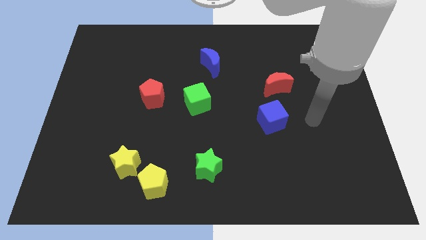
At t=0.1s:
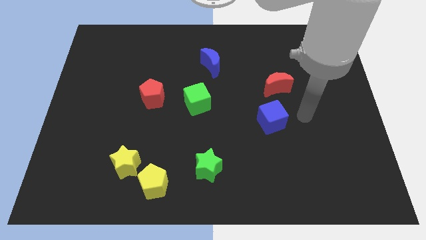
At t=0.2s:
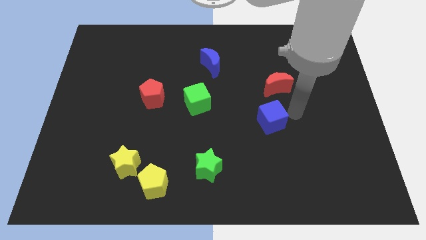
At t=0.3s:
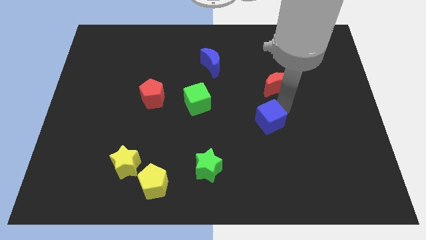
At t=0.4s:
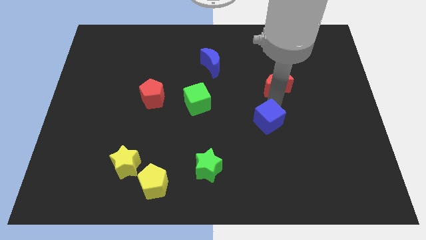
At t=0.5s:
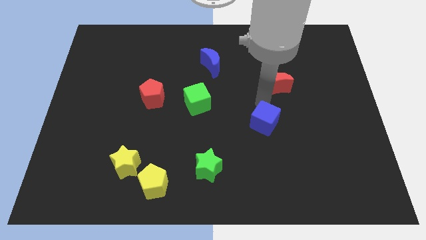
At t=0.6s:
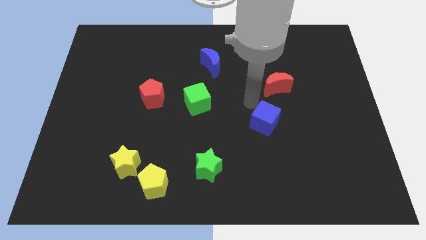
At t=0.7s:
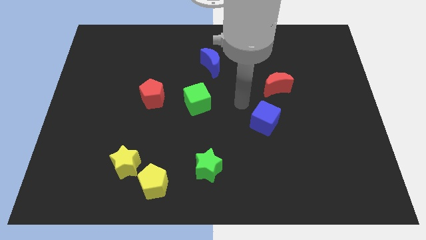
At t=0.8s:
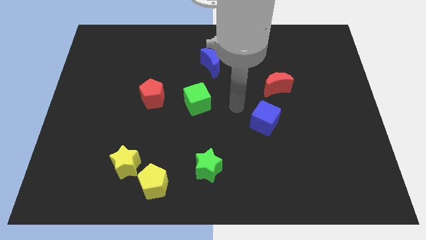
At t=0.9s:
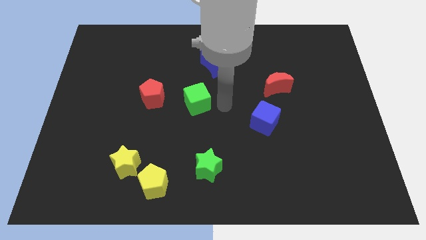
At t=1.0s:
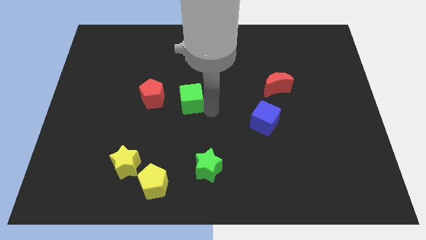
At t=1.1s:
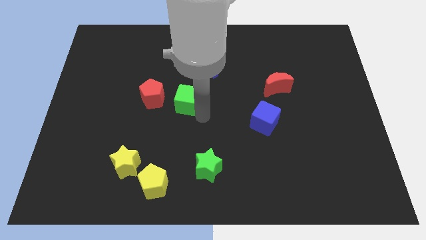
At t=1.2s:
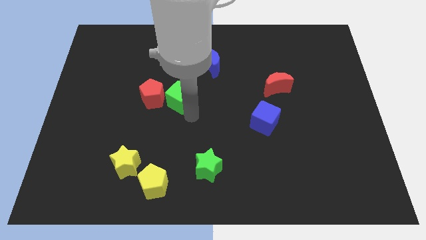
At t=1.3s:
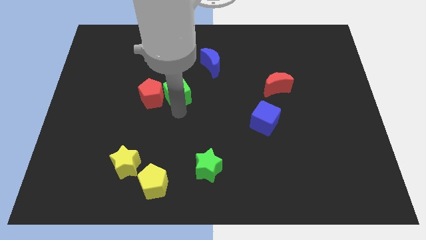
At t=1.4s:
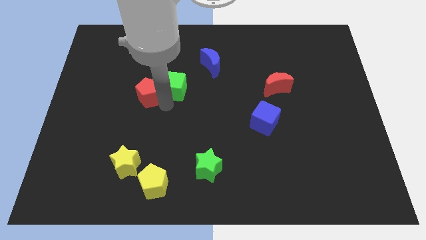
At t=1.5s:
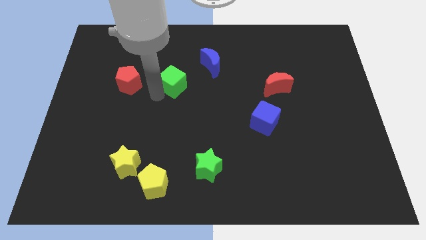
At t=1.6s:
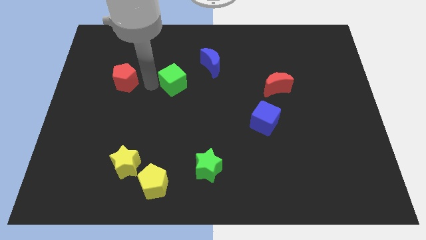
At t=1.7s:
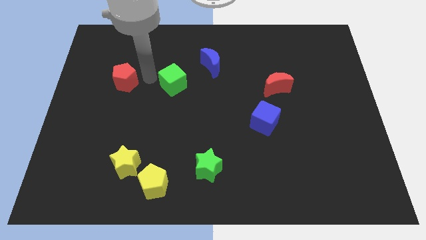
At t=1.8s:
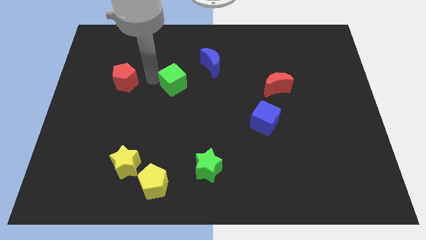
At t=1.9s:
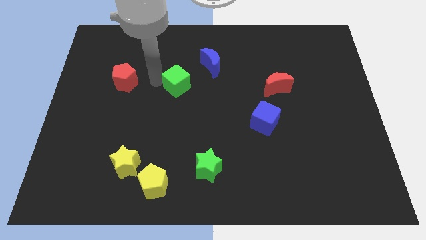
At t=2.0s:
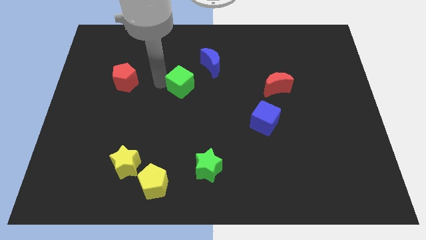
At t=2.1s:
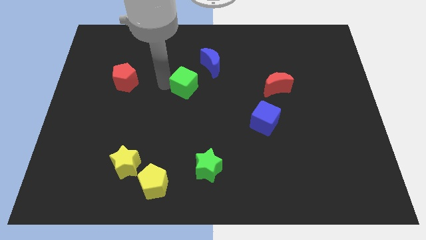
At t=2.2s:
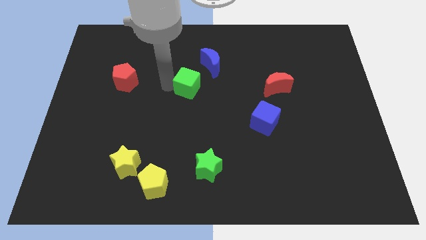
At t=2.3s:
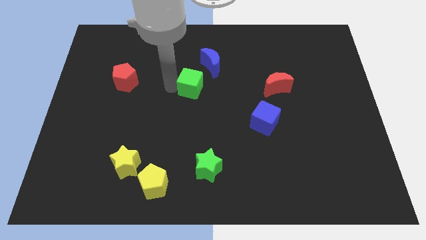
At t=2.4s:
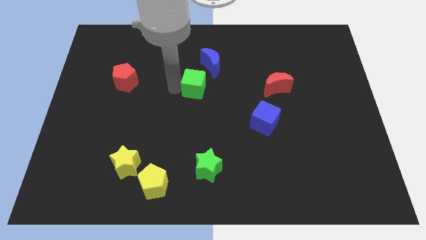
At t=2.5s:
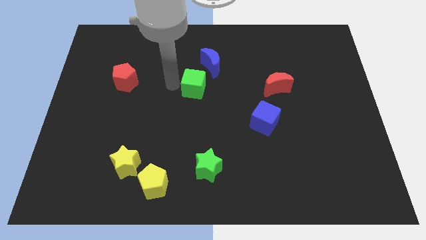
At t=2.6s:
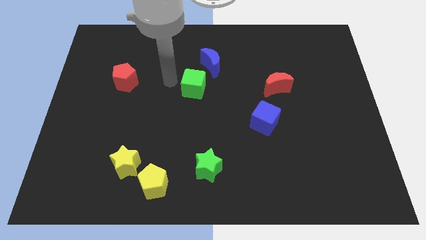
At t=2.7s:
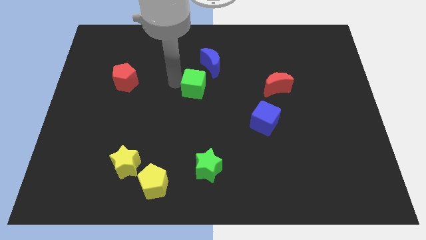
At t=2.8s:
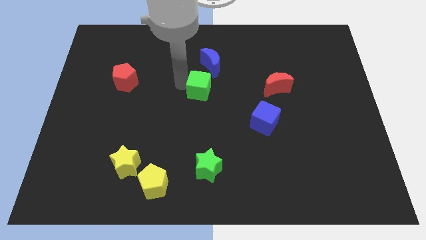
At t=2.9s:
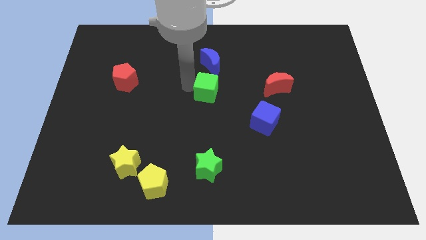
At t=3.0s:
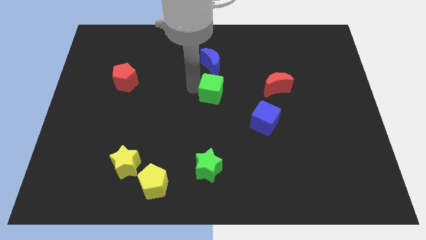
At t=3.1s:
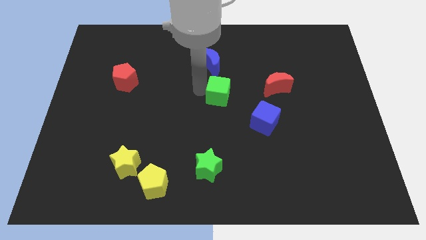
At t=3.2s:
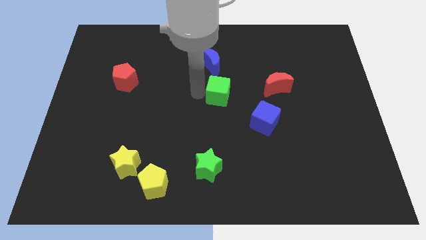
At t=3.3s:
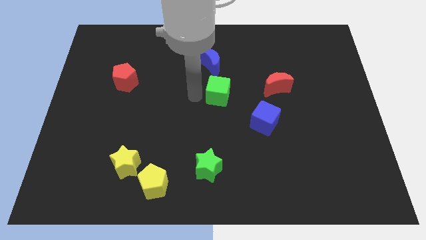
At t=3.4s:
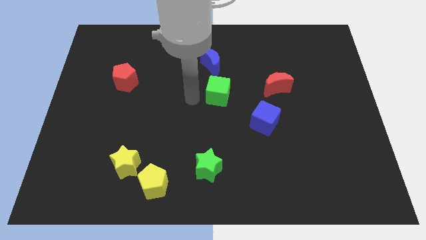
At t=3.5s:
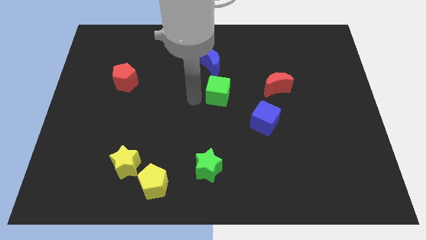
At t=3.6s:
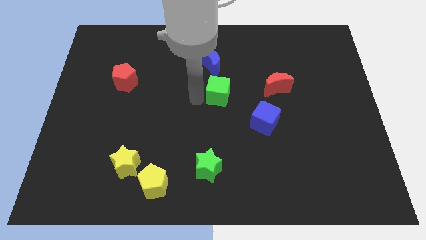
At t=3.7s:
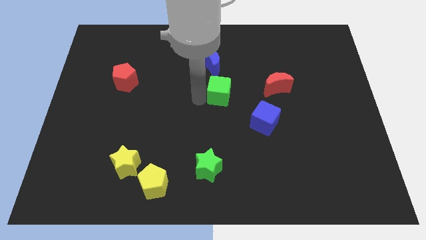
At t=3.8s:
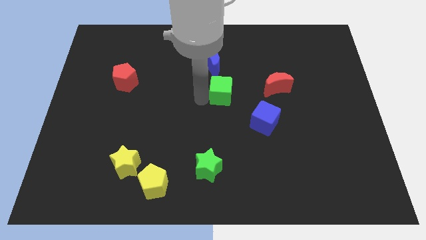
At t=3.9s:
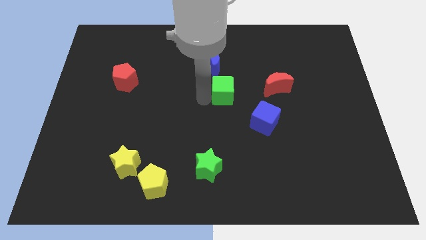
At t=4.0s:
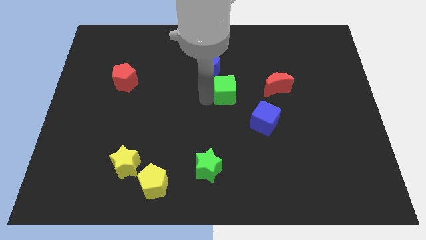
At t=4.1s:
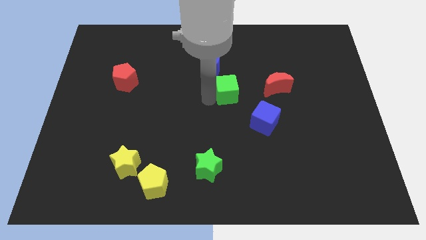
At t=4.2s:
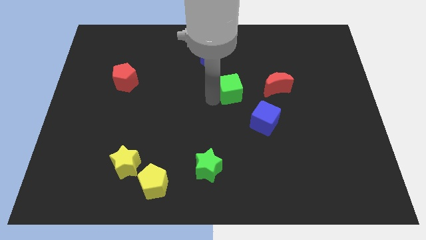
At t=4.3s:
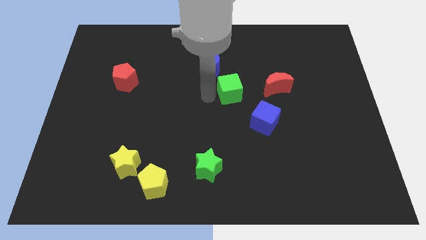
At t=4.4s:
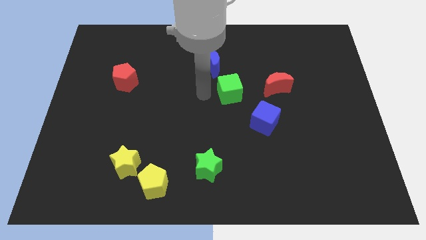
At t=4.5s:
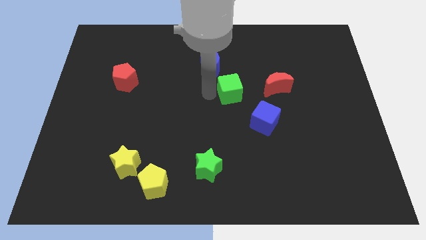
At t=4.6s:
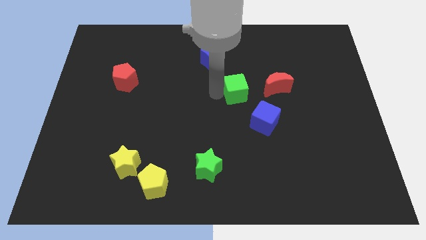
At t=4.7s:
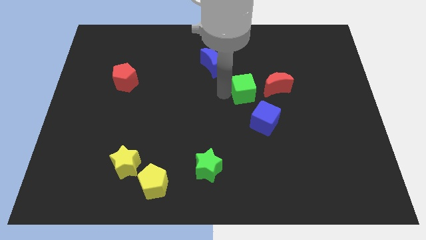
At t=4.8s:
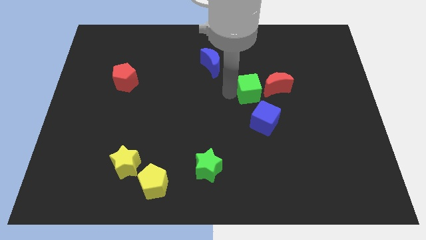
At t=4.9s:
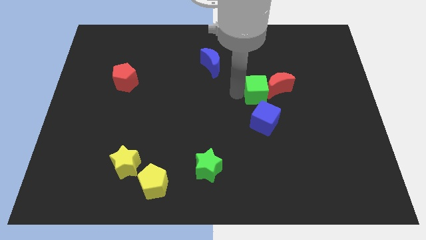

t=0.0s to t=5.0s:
slide the green cube to the red moon

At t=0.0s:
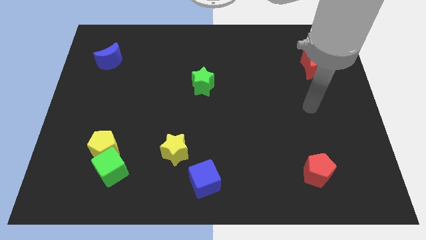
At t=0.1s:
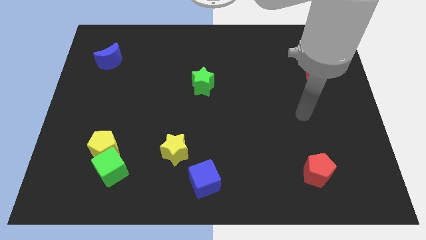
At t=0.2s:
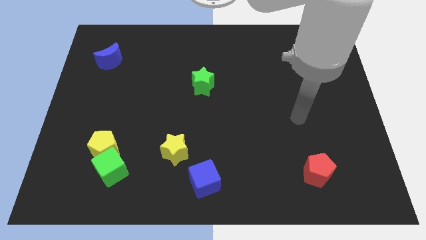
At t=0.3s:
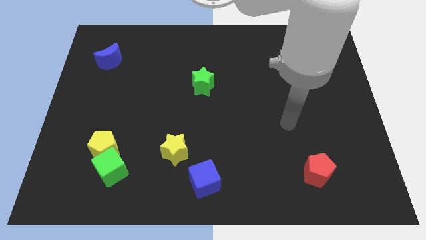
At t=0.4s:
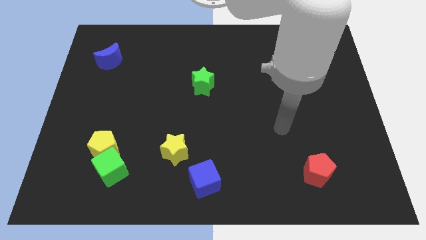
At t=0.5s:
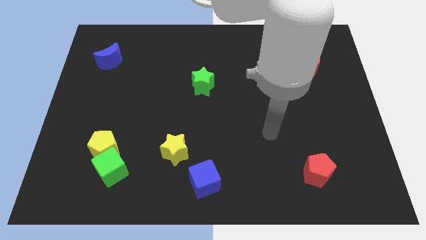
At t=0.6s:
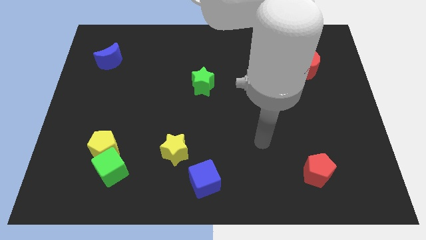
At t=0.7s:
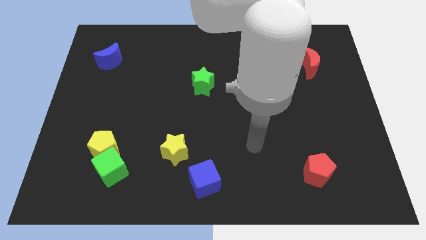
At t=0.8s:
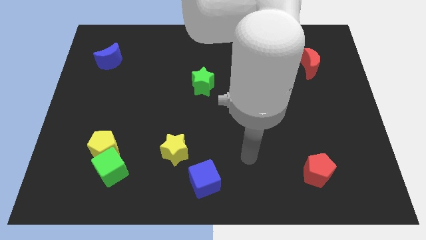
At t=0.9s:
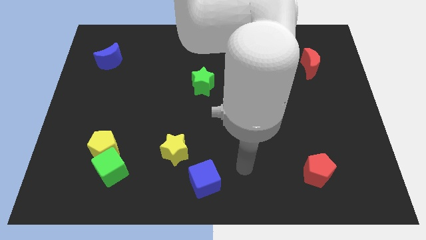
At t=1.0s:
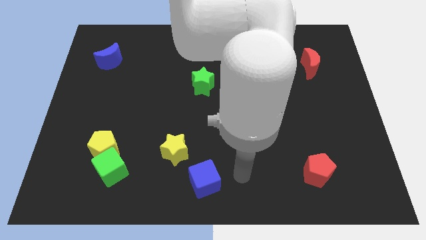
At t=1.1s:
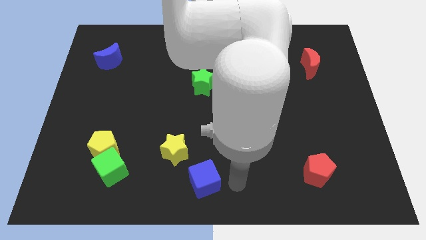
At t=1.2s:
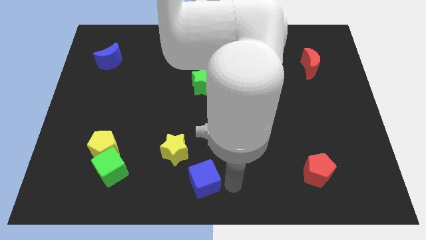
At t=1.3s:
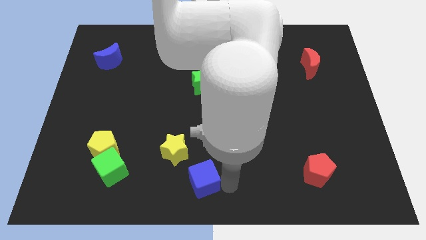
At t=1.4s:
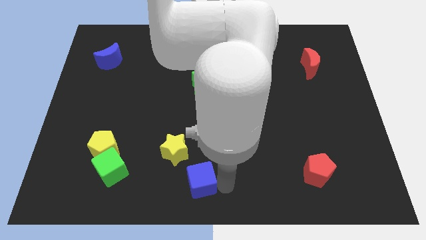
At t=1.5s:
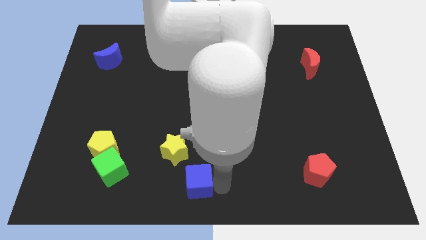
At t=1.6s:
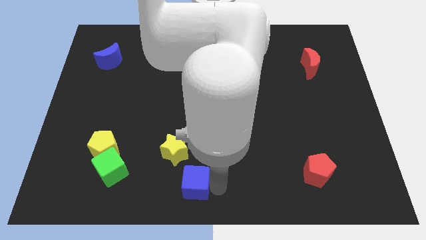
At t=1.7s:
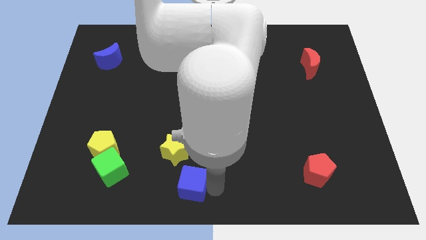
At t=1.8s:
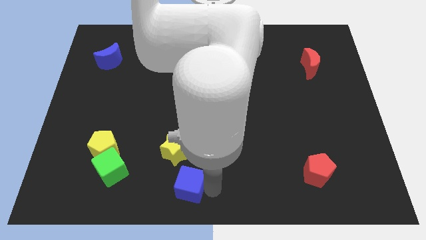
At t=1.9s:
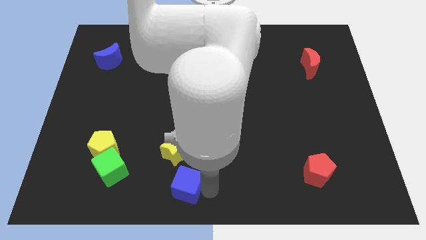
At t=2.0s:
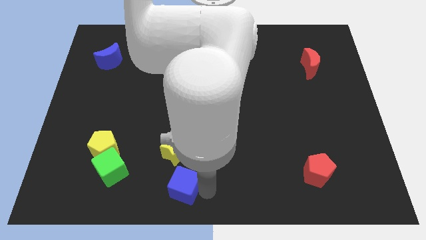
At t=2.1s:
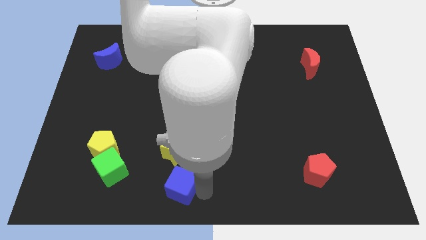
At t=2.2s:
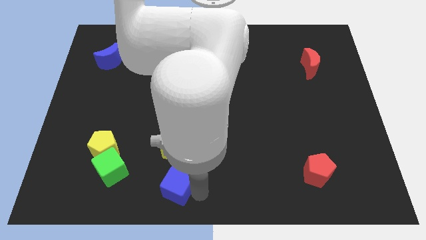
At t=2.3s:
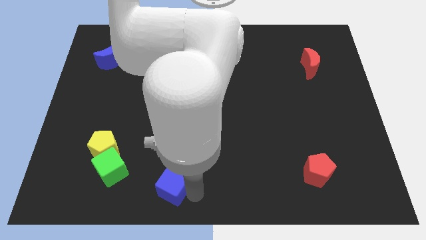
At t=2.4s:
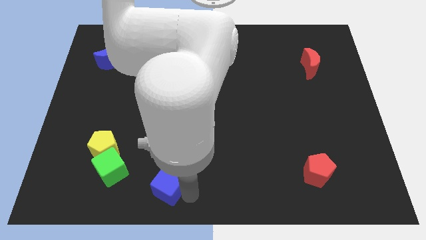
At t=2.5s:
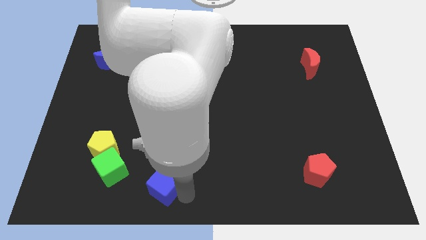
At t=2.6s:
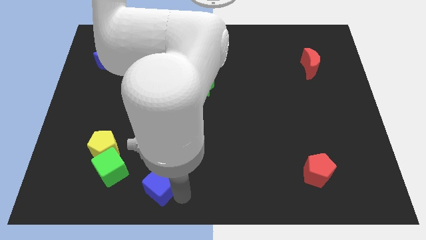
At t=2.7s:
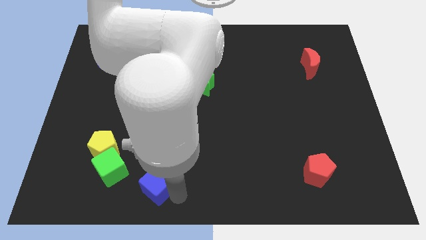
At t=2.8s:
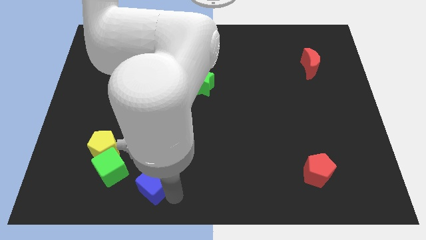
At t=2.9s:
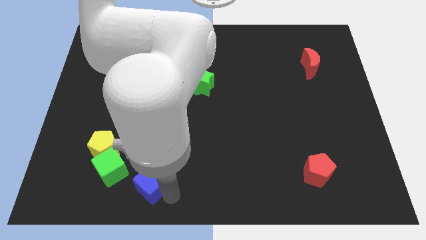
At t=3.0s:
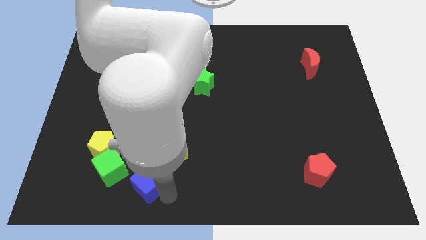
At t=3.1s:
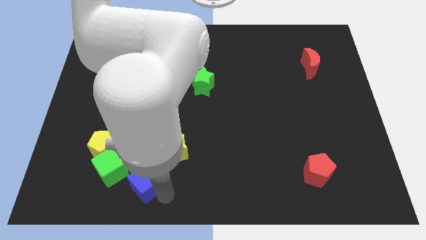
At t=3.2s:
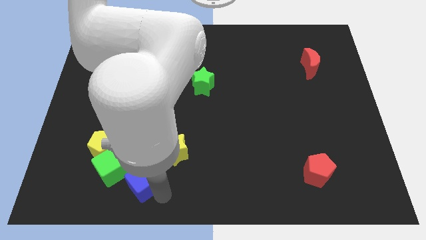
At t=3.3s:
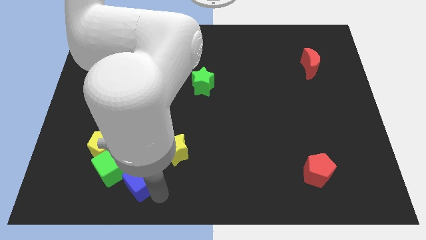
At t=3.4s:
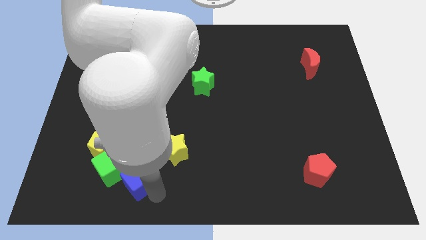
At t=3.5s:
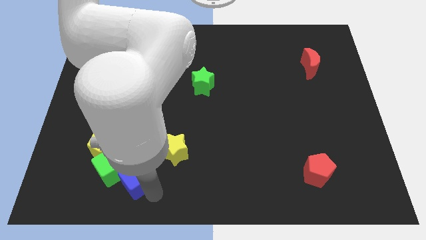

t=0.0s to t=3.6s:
put the blue cube next to the green cube
